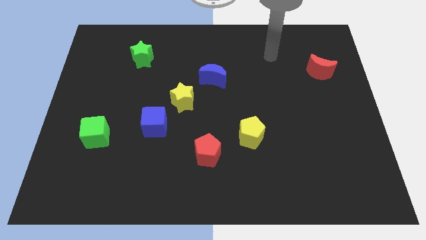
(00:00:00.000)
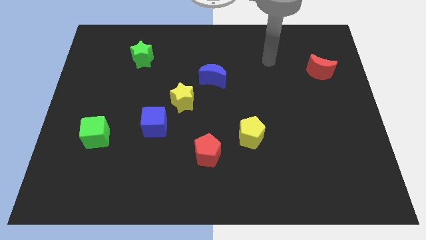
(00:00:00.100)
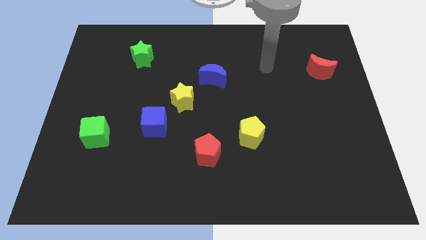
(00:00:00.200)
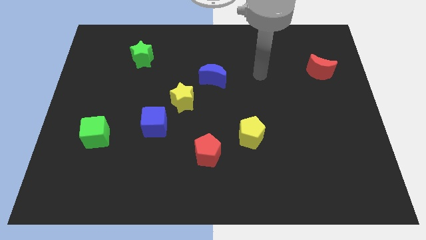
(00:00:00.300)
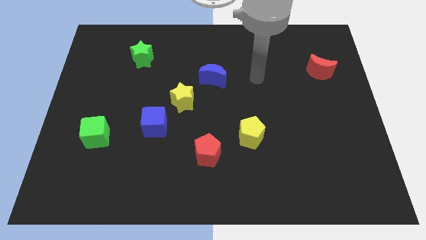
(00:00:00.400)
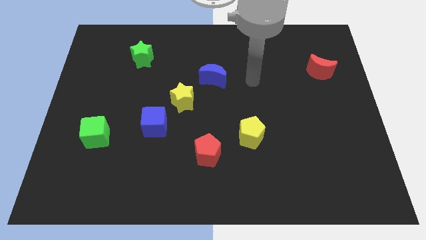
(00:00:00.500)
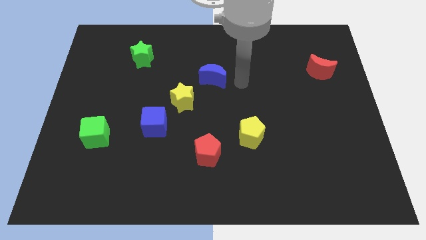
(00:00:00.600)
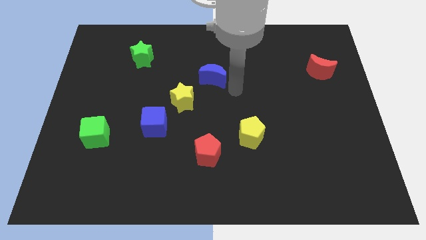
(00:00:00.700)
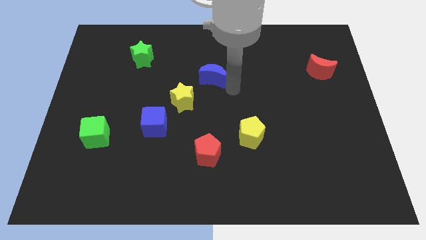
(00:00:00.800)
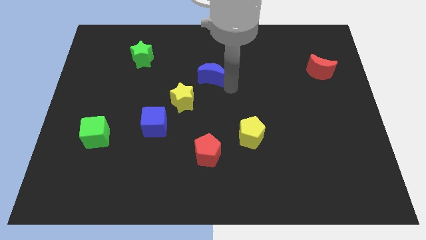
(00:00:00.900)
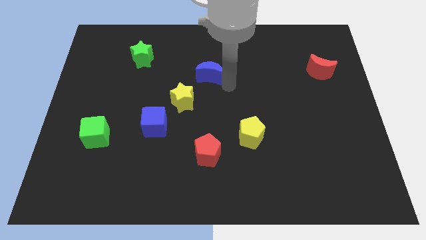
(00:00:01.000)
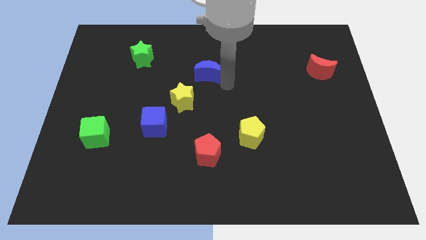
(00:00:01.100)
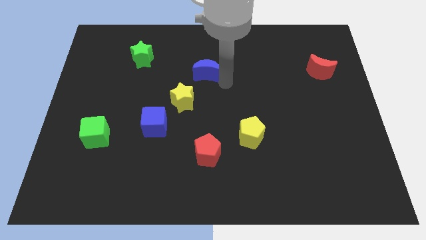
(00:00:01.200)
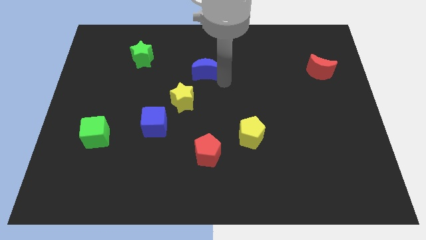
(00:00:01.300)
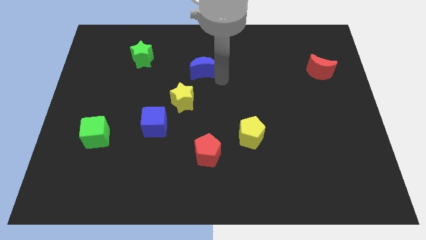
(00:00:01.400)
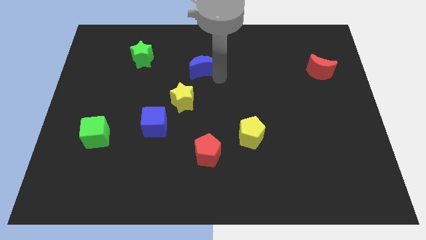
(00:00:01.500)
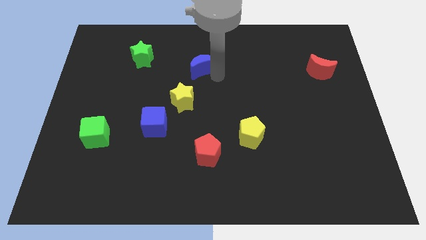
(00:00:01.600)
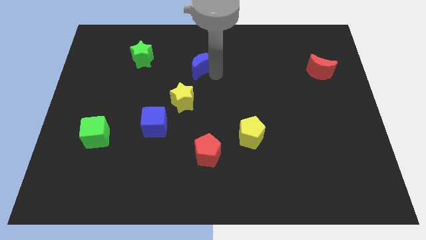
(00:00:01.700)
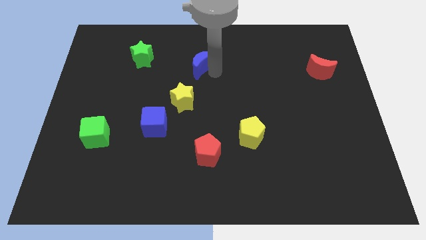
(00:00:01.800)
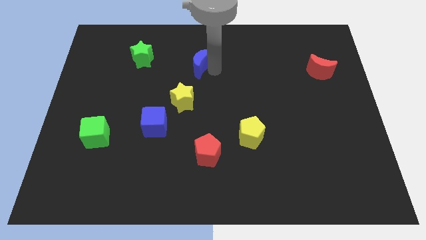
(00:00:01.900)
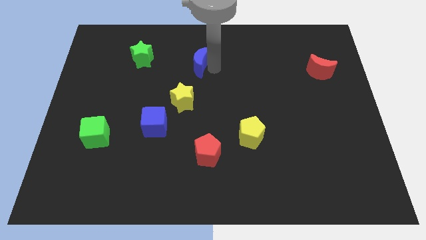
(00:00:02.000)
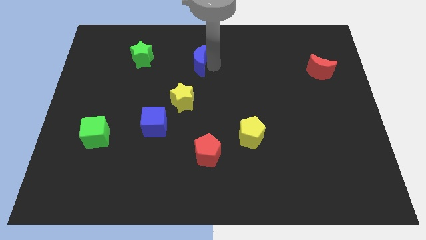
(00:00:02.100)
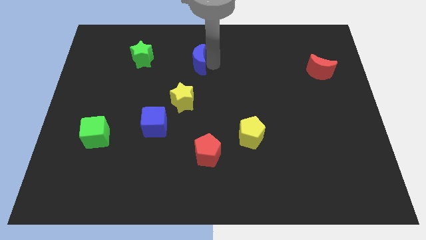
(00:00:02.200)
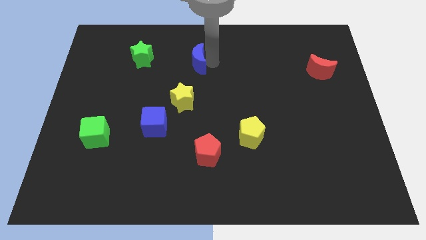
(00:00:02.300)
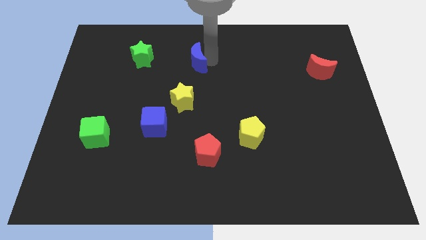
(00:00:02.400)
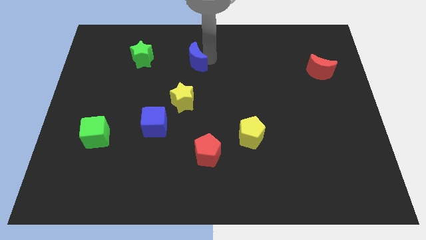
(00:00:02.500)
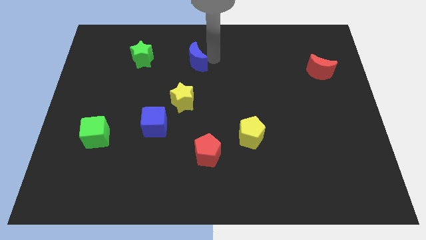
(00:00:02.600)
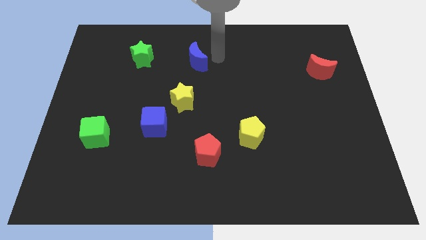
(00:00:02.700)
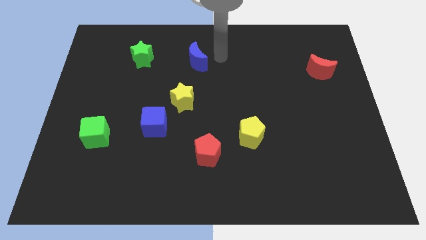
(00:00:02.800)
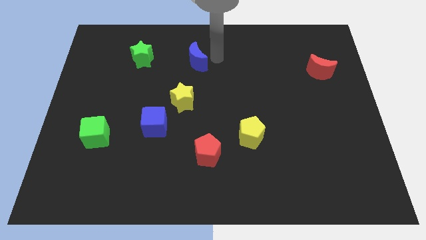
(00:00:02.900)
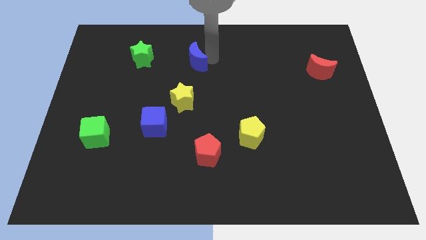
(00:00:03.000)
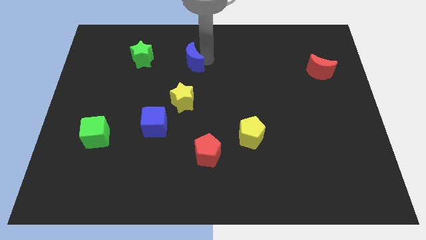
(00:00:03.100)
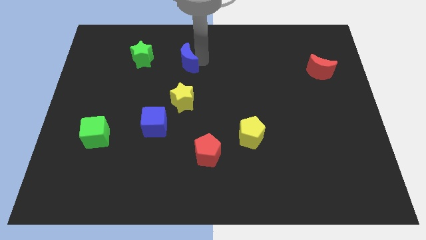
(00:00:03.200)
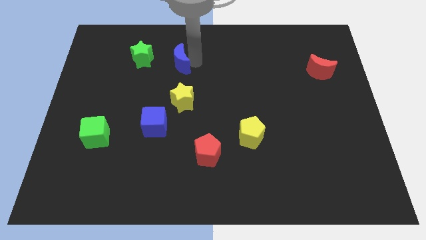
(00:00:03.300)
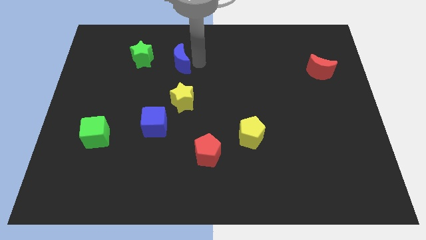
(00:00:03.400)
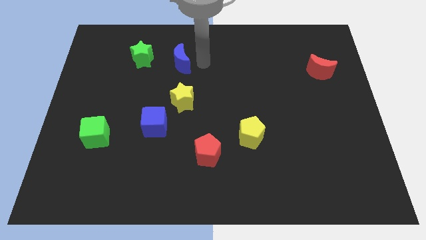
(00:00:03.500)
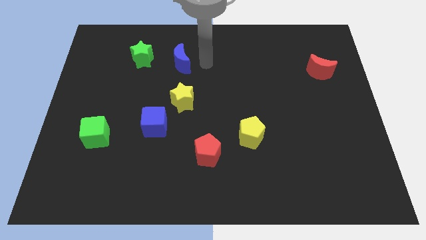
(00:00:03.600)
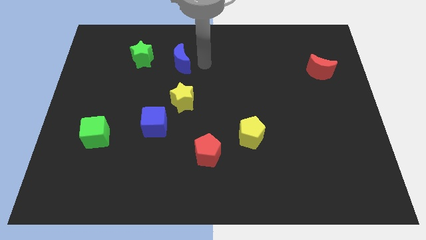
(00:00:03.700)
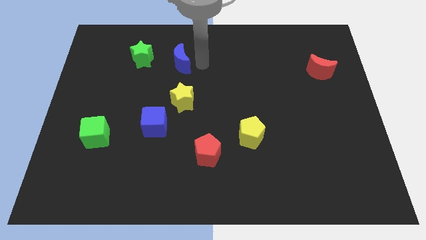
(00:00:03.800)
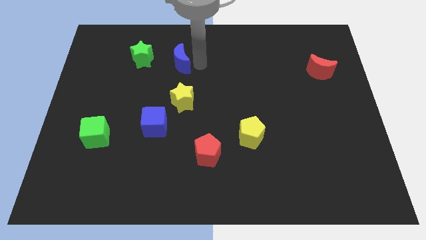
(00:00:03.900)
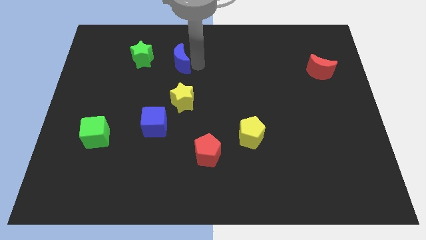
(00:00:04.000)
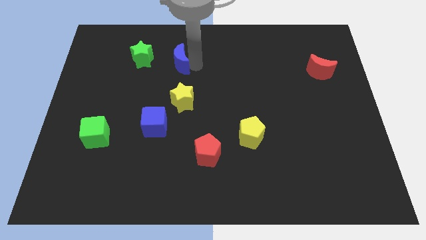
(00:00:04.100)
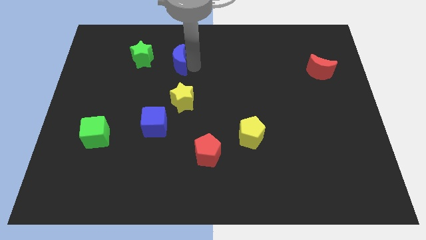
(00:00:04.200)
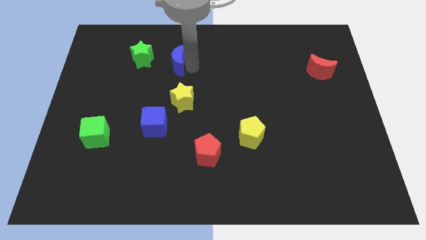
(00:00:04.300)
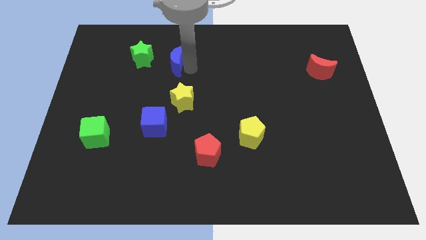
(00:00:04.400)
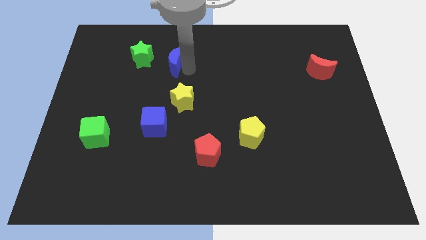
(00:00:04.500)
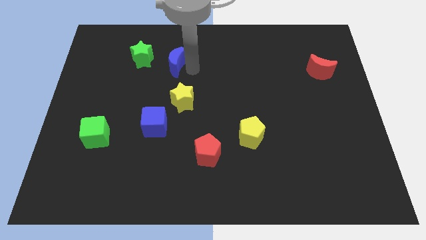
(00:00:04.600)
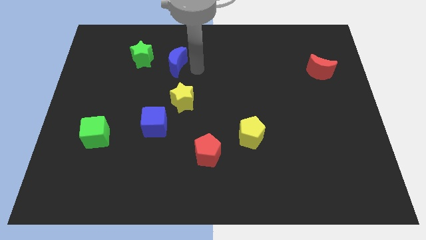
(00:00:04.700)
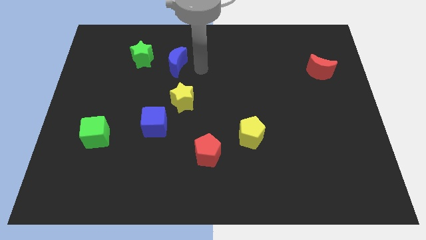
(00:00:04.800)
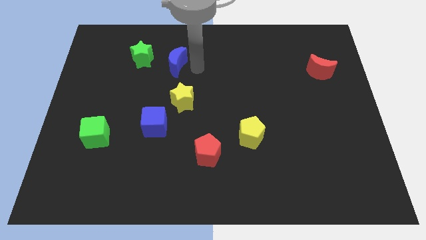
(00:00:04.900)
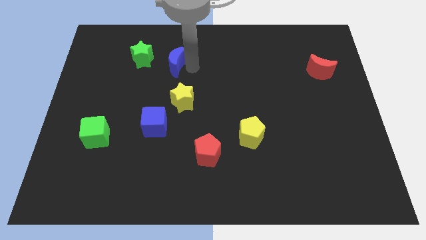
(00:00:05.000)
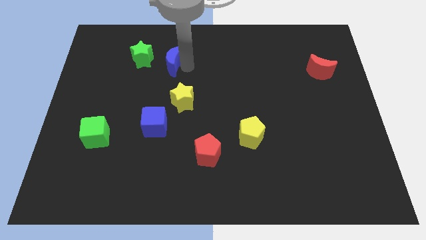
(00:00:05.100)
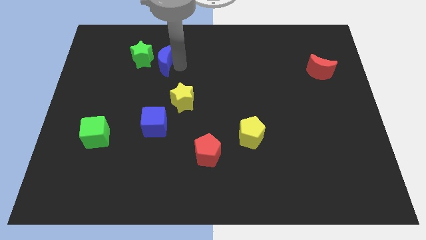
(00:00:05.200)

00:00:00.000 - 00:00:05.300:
push the blue moon next to the green star

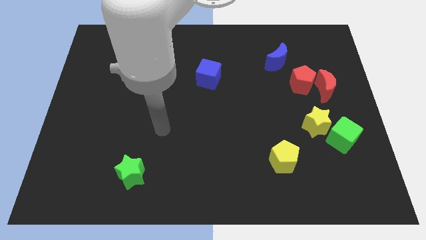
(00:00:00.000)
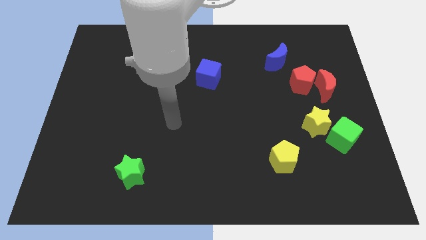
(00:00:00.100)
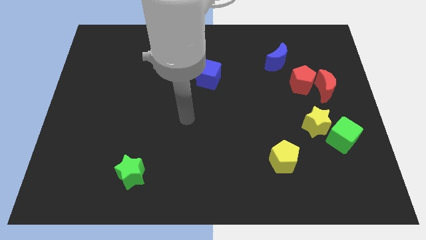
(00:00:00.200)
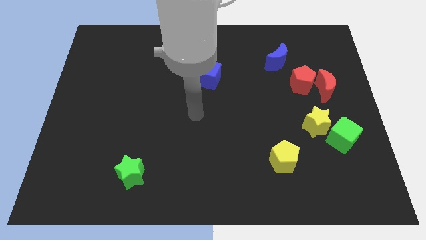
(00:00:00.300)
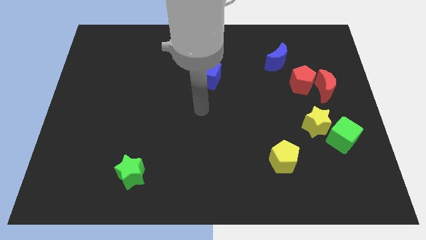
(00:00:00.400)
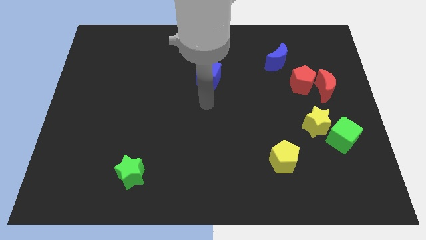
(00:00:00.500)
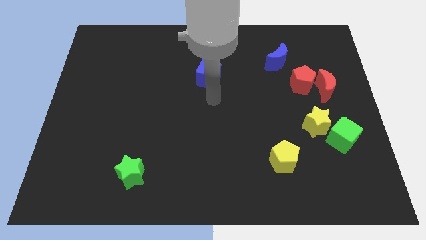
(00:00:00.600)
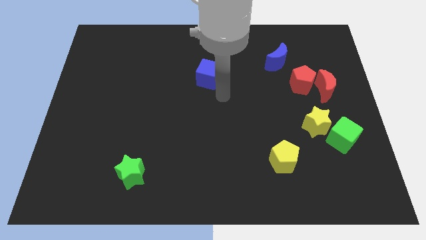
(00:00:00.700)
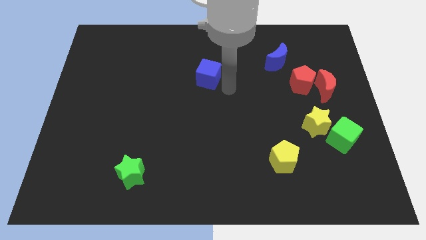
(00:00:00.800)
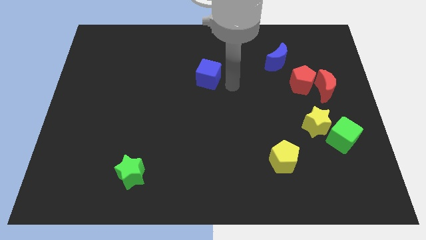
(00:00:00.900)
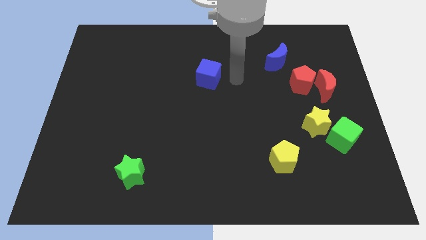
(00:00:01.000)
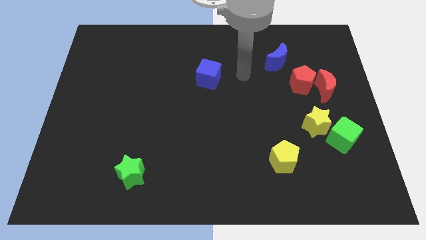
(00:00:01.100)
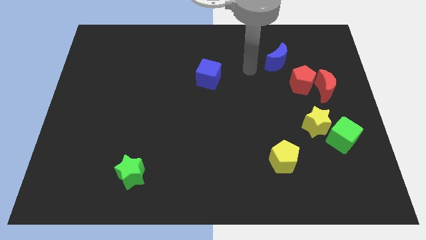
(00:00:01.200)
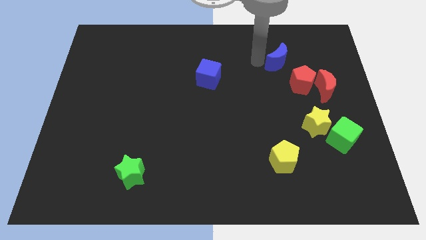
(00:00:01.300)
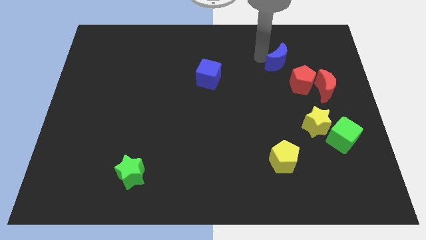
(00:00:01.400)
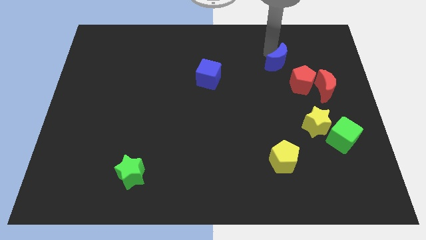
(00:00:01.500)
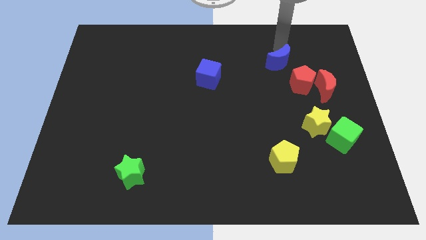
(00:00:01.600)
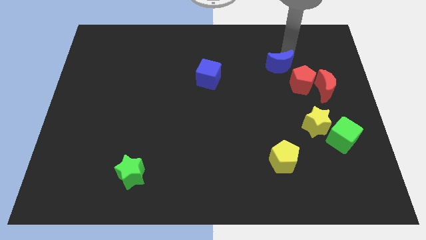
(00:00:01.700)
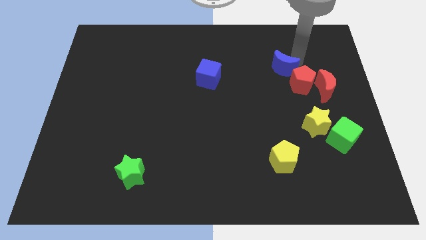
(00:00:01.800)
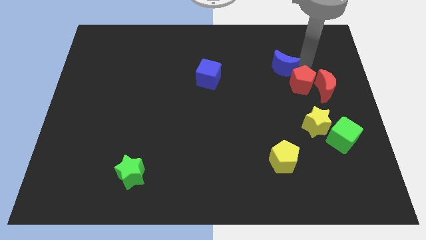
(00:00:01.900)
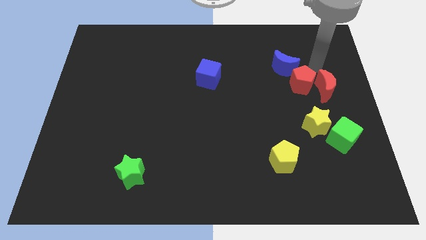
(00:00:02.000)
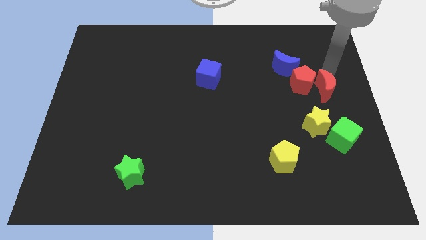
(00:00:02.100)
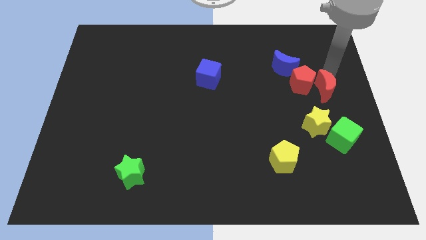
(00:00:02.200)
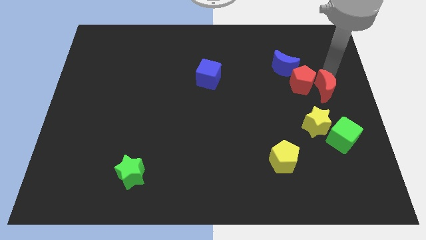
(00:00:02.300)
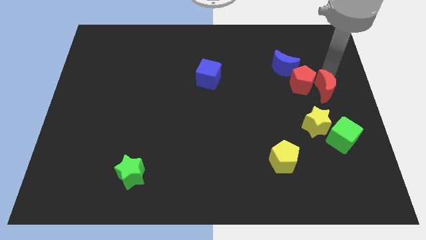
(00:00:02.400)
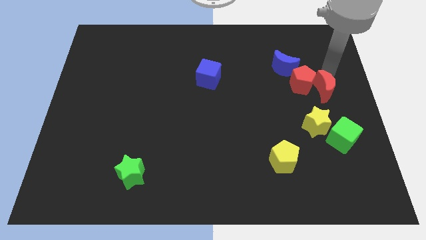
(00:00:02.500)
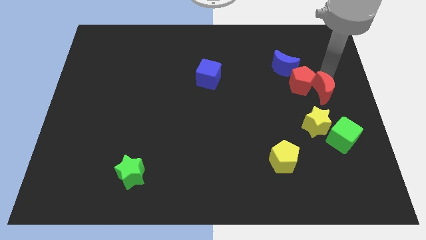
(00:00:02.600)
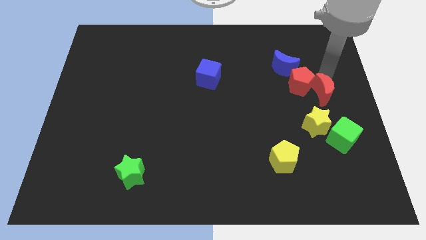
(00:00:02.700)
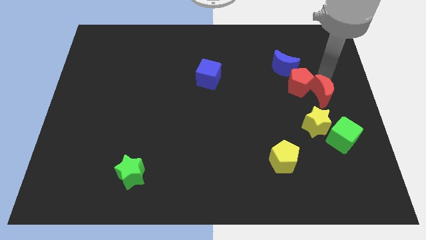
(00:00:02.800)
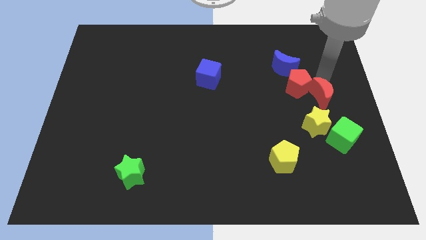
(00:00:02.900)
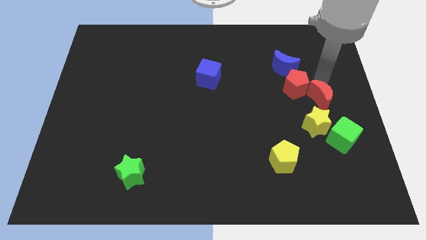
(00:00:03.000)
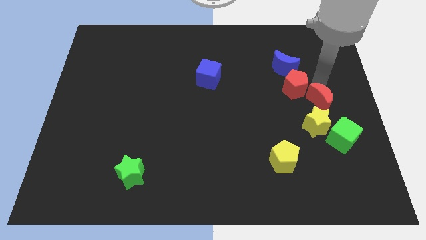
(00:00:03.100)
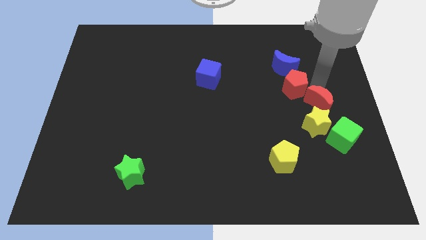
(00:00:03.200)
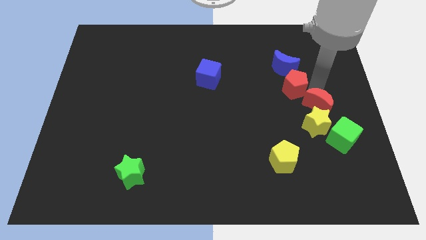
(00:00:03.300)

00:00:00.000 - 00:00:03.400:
push the red moon next to the yellow star
